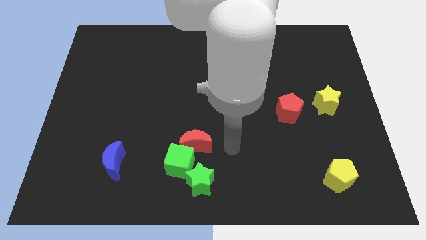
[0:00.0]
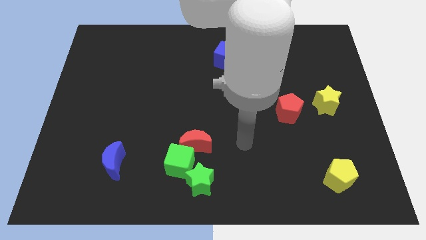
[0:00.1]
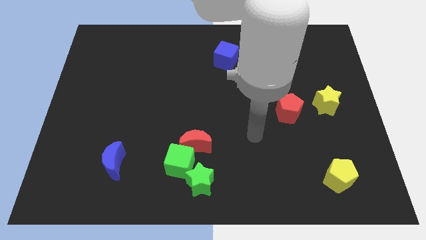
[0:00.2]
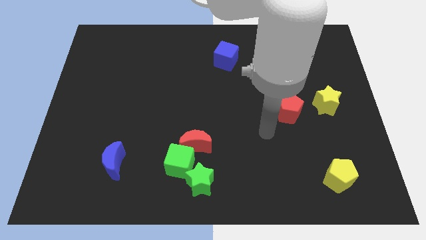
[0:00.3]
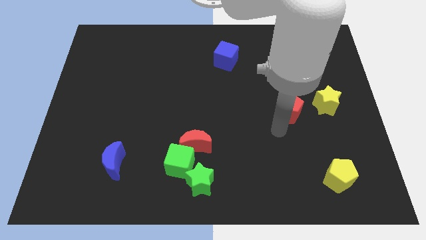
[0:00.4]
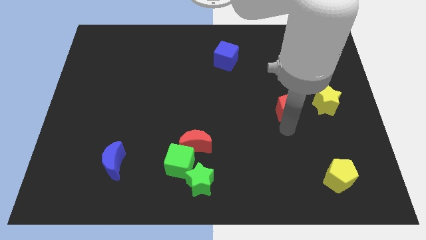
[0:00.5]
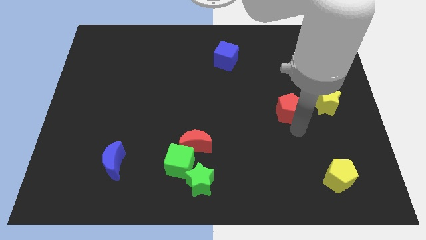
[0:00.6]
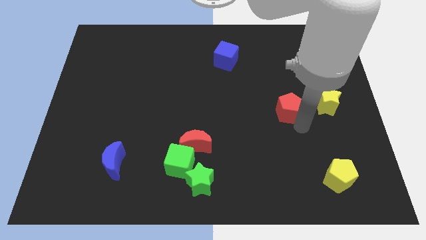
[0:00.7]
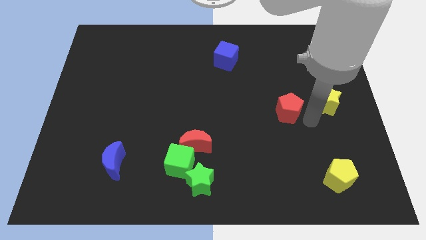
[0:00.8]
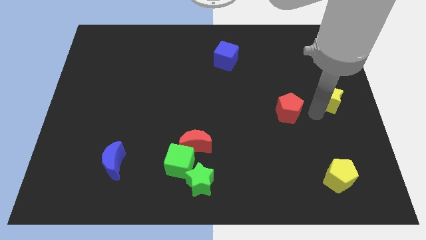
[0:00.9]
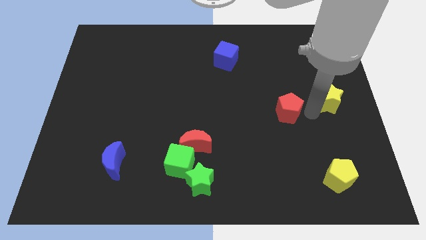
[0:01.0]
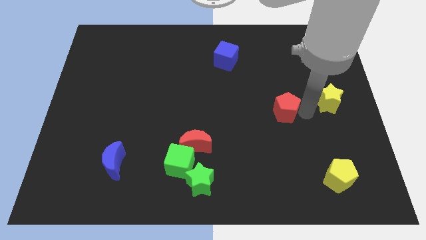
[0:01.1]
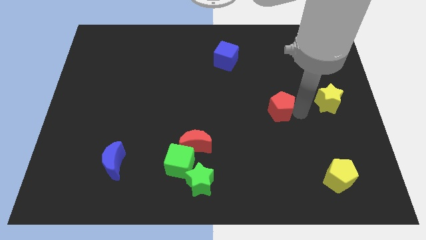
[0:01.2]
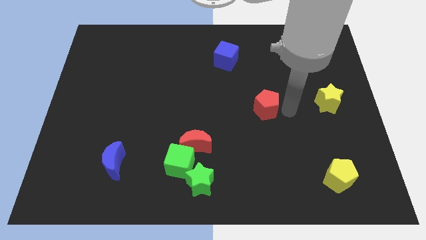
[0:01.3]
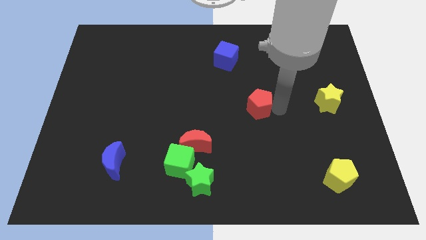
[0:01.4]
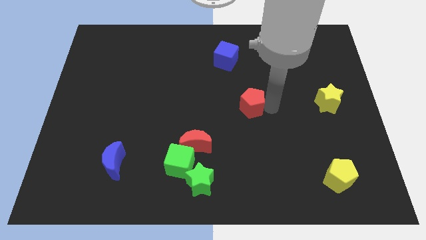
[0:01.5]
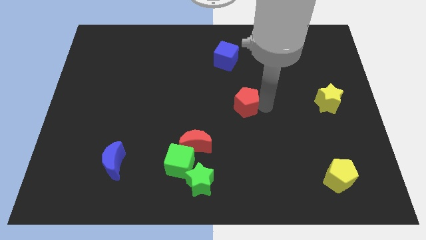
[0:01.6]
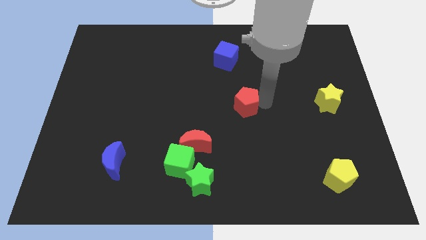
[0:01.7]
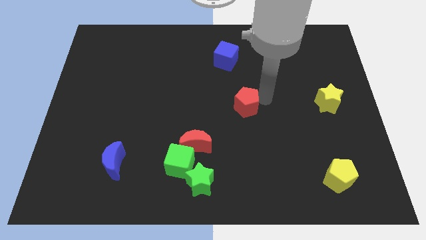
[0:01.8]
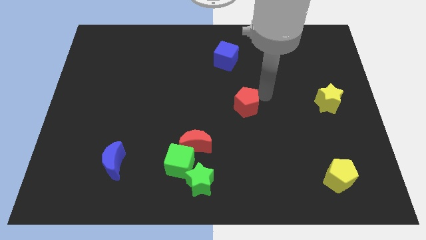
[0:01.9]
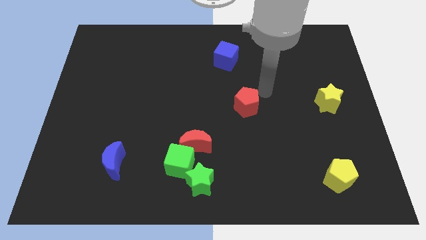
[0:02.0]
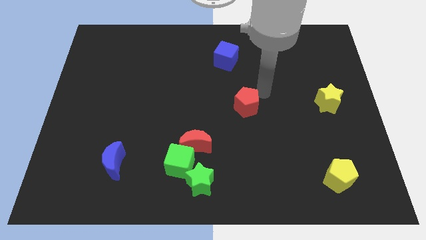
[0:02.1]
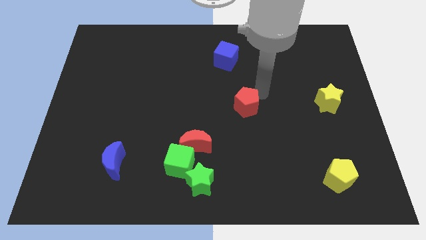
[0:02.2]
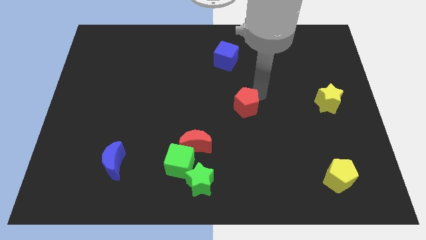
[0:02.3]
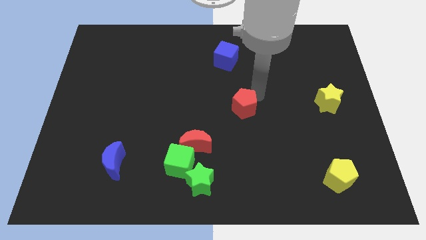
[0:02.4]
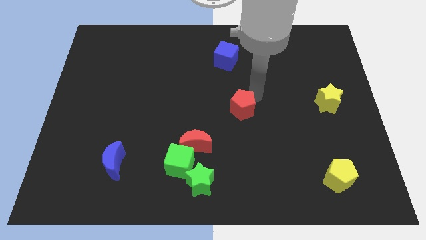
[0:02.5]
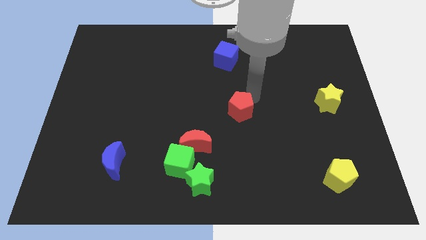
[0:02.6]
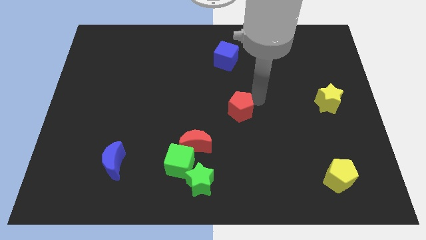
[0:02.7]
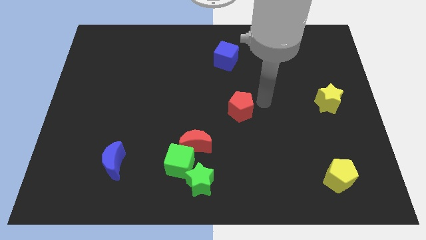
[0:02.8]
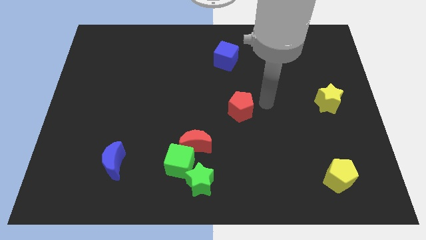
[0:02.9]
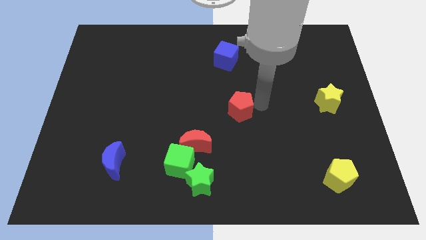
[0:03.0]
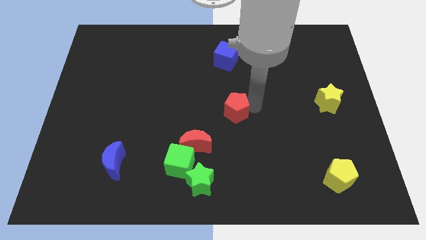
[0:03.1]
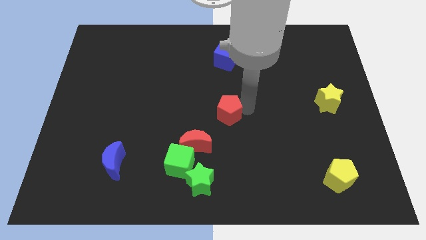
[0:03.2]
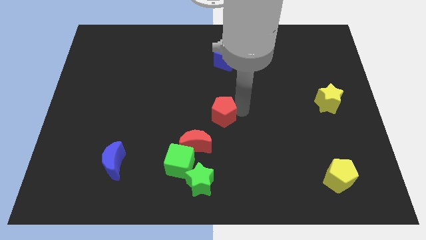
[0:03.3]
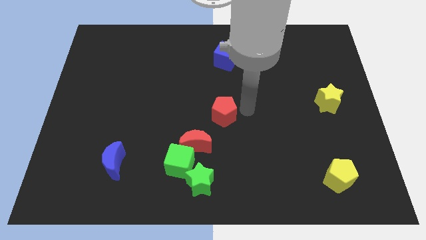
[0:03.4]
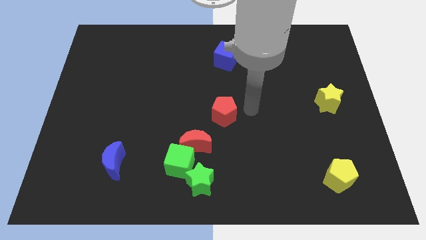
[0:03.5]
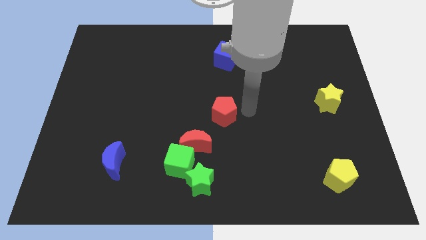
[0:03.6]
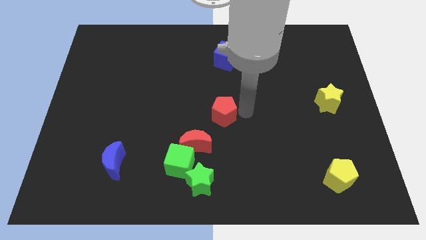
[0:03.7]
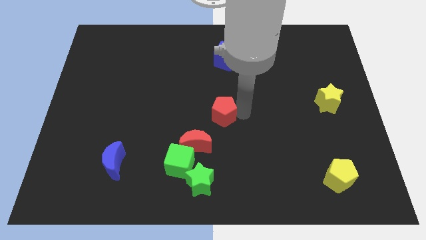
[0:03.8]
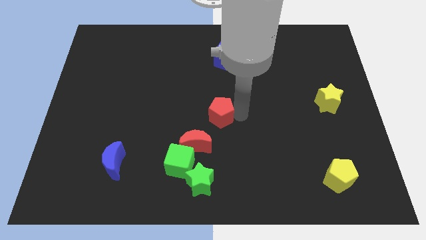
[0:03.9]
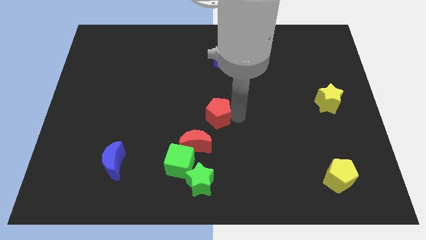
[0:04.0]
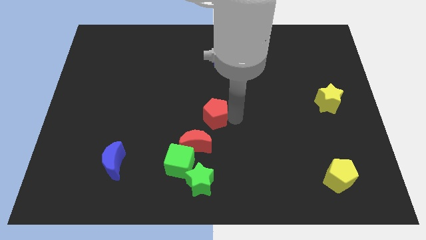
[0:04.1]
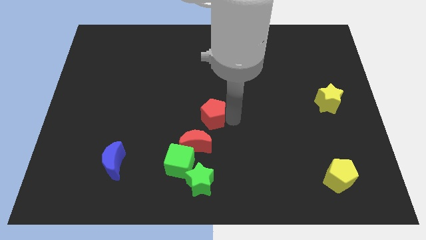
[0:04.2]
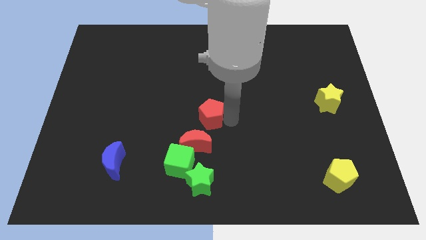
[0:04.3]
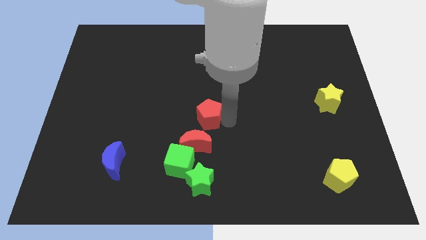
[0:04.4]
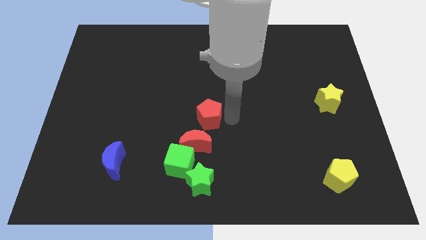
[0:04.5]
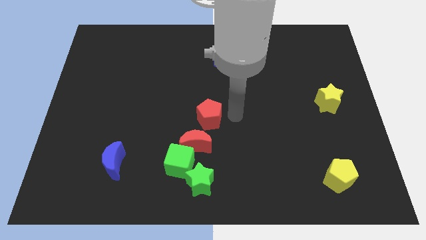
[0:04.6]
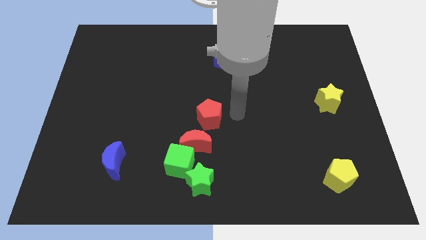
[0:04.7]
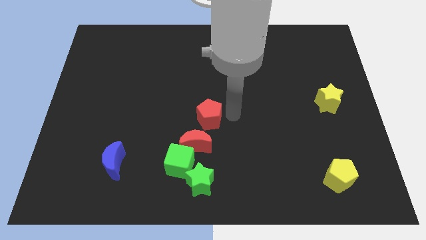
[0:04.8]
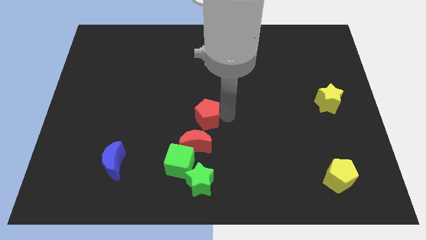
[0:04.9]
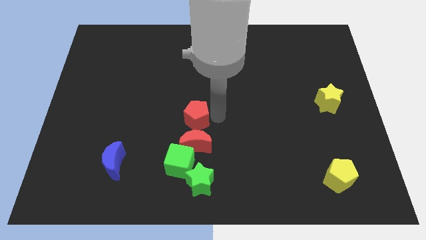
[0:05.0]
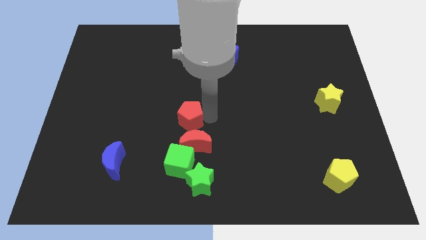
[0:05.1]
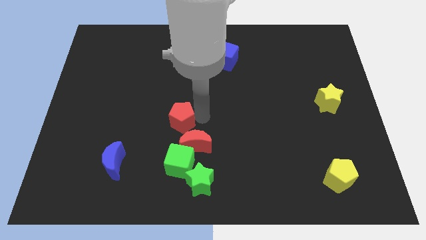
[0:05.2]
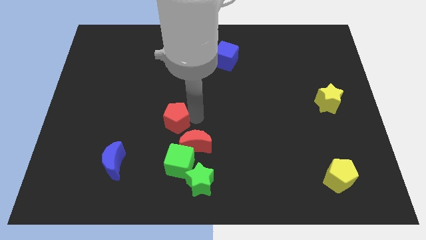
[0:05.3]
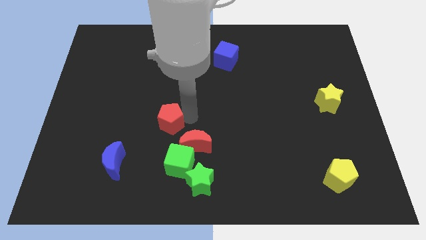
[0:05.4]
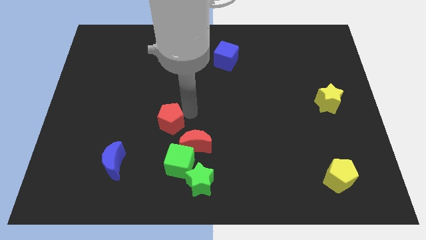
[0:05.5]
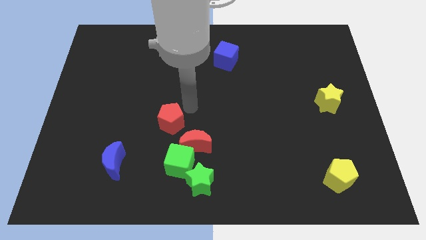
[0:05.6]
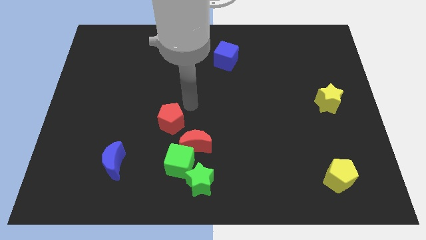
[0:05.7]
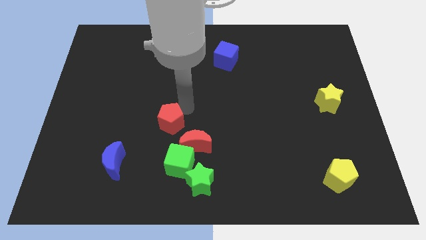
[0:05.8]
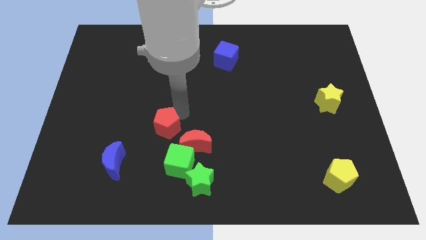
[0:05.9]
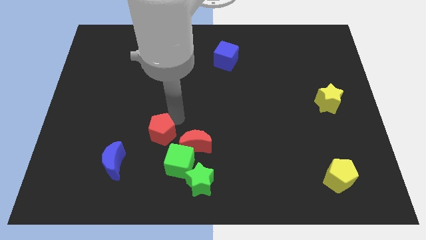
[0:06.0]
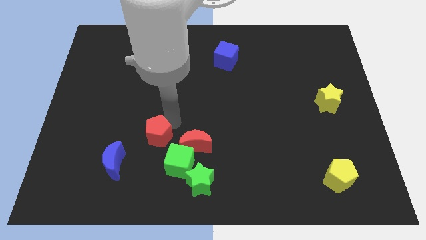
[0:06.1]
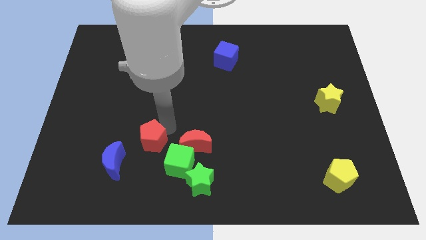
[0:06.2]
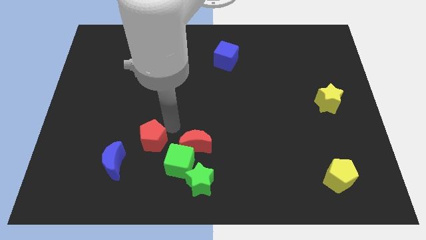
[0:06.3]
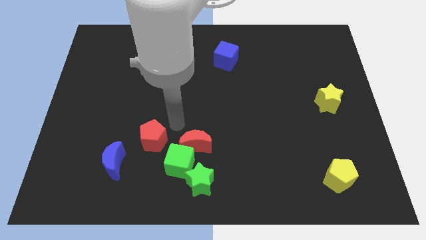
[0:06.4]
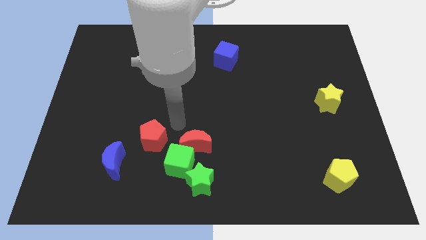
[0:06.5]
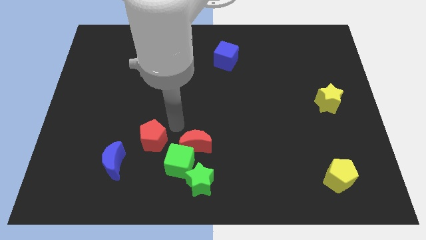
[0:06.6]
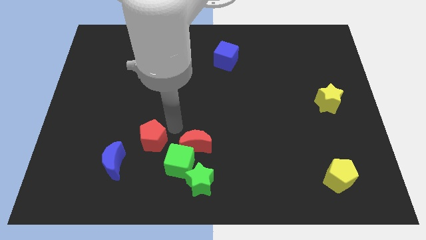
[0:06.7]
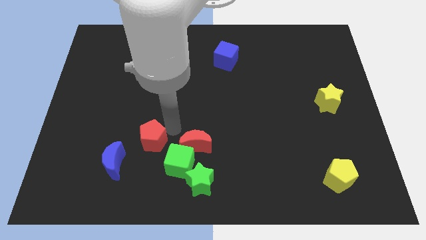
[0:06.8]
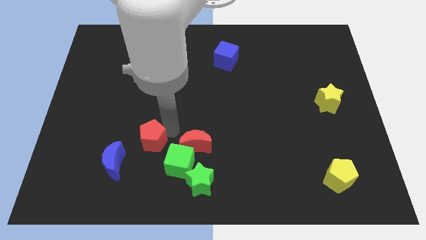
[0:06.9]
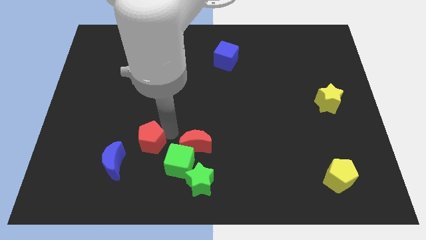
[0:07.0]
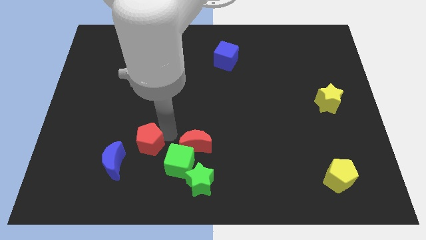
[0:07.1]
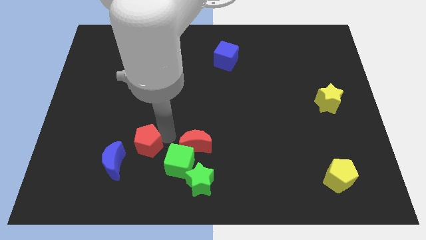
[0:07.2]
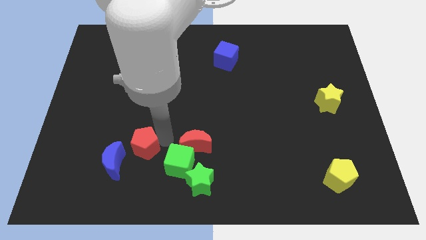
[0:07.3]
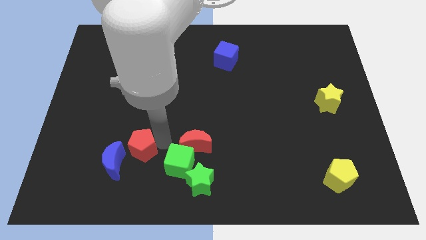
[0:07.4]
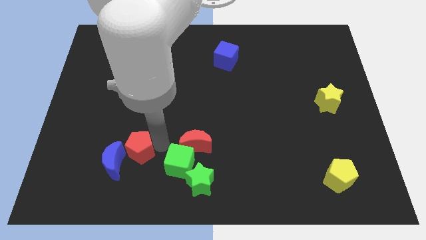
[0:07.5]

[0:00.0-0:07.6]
push the red pentagon next to the blue moon
